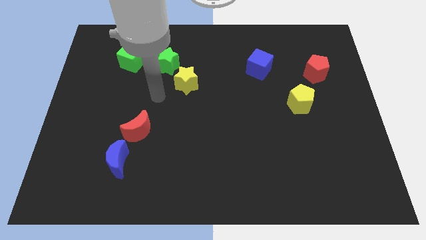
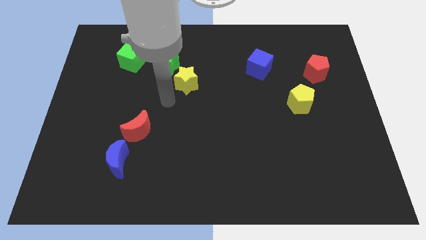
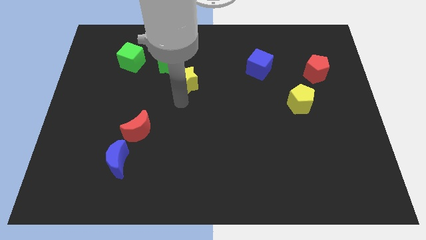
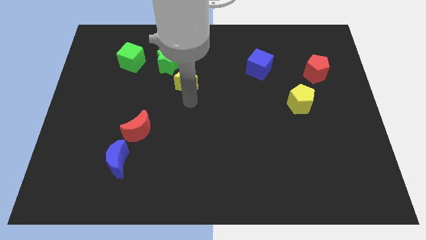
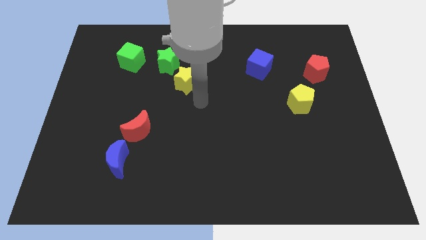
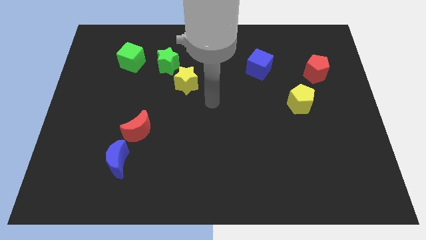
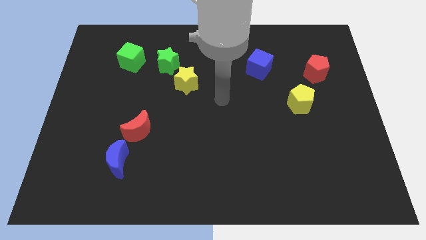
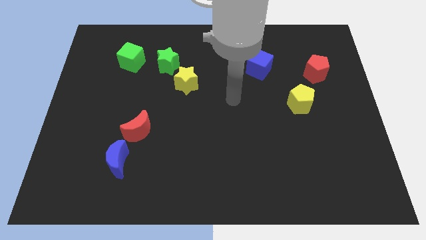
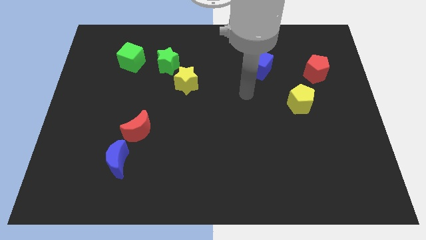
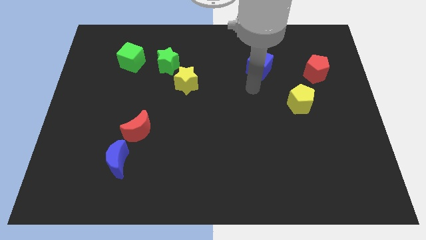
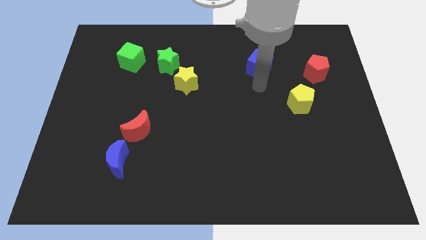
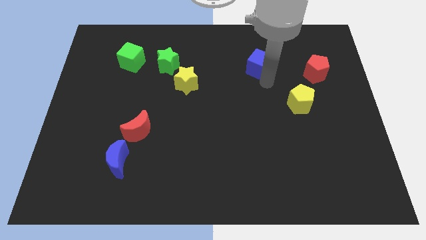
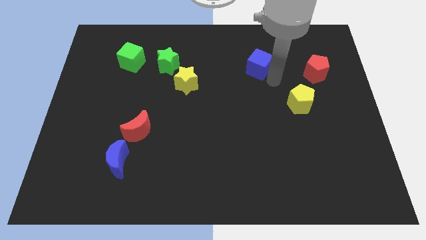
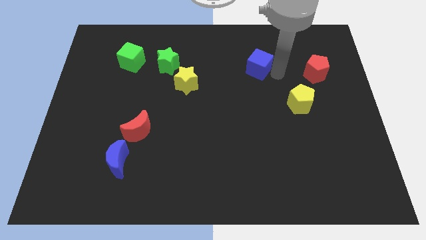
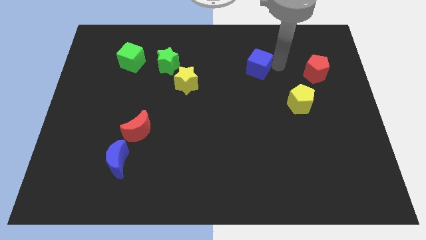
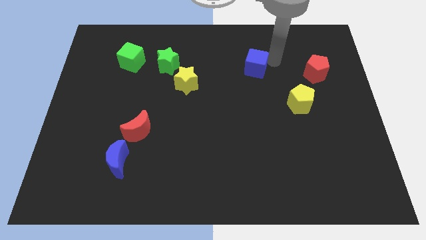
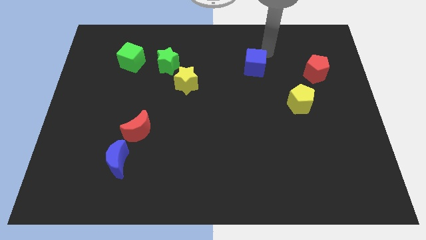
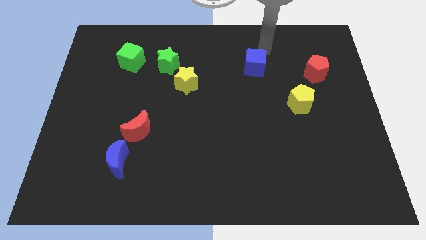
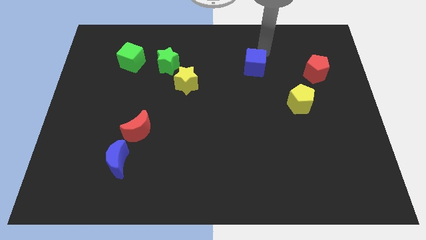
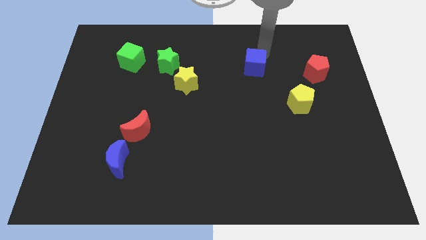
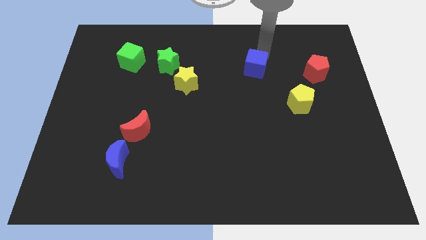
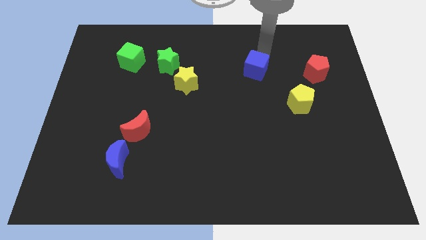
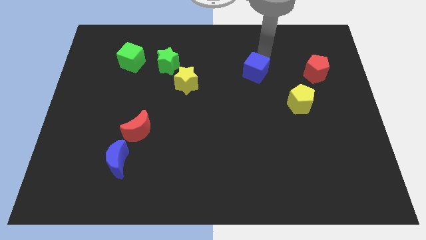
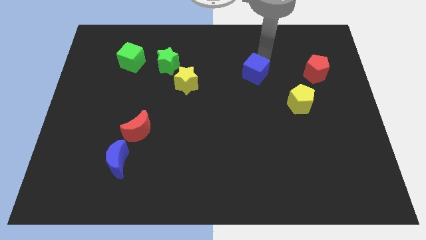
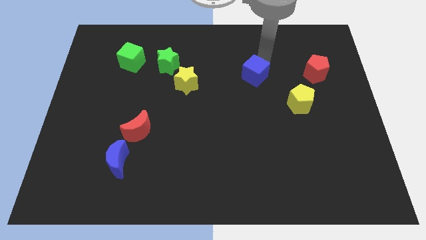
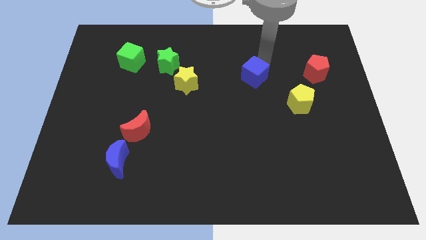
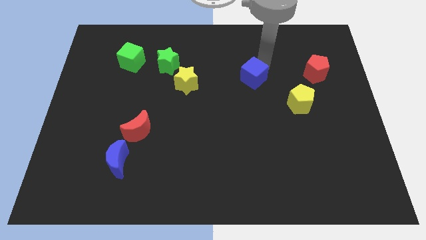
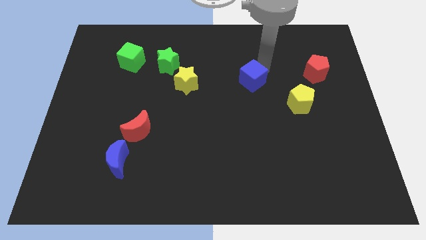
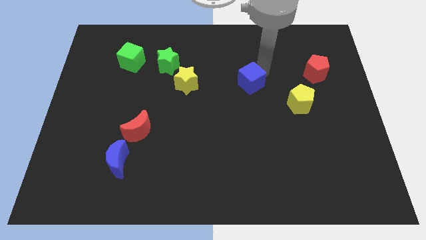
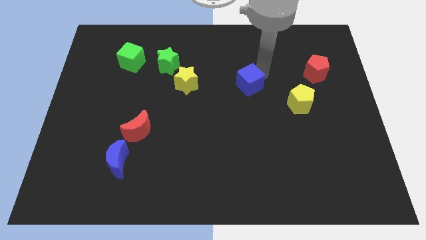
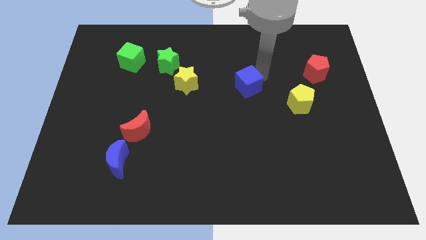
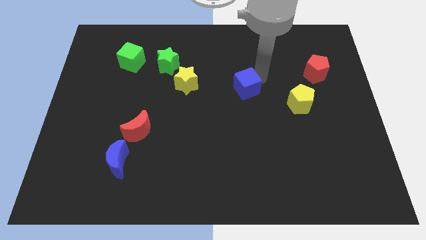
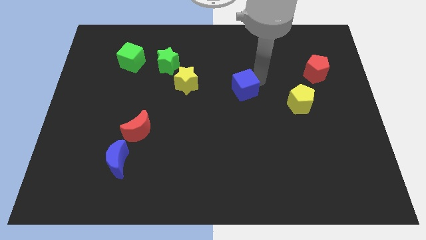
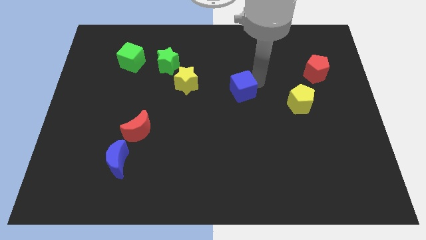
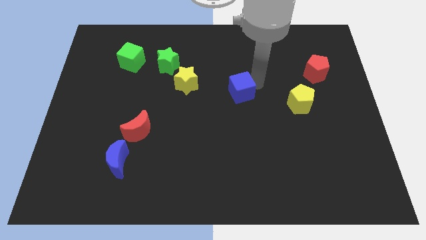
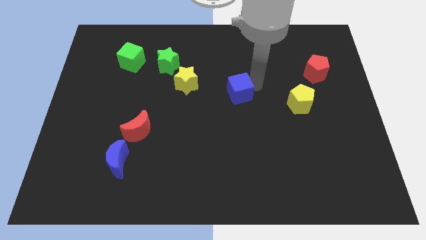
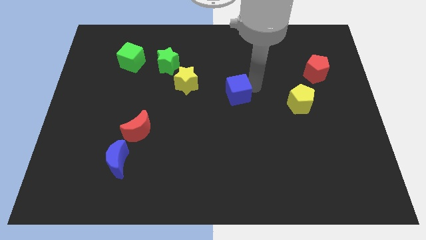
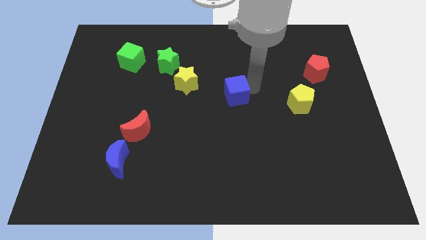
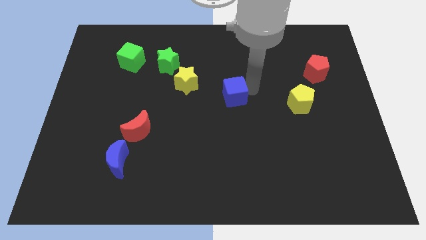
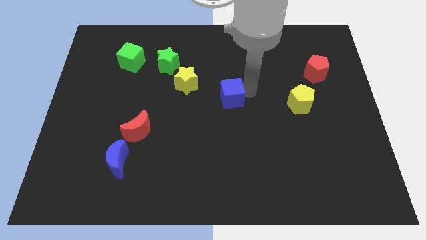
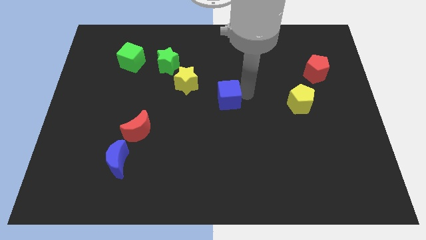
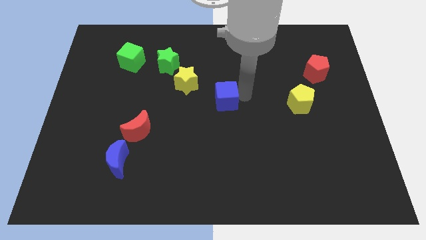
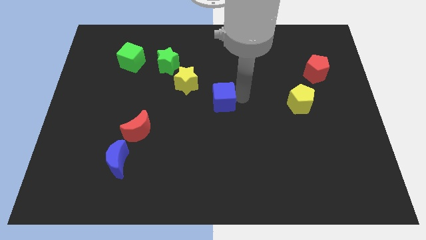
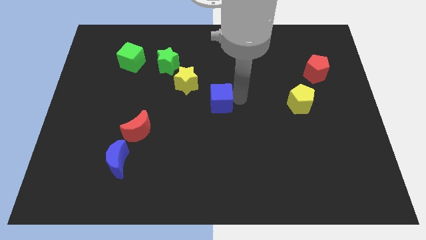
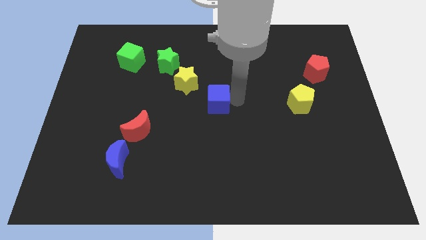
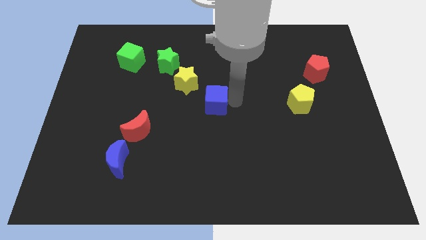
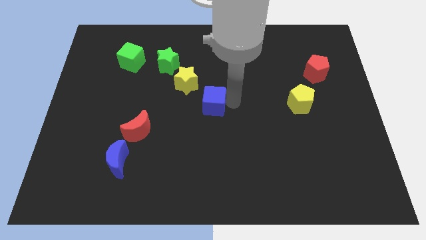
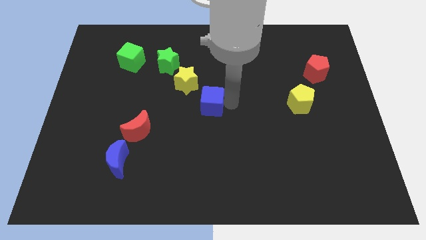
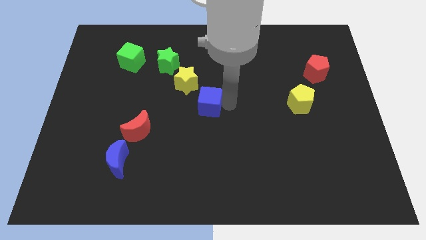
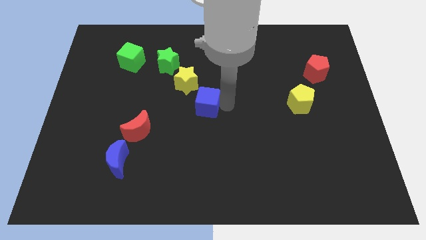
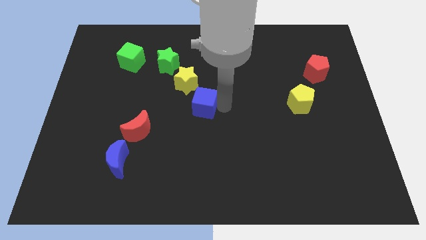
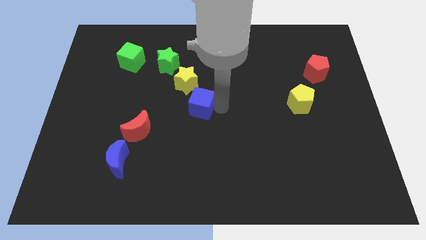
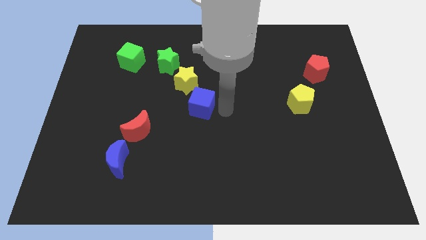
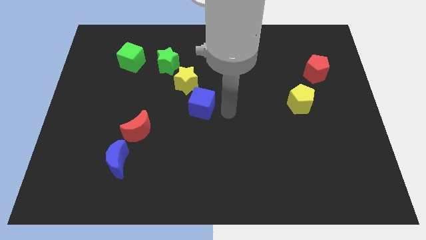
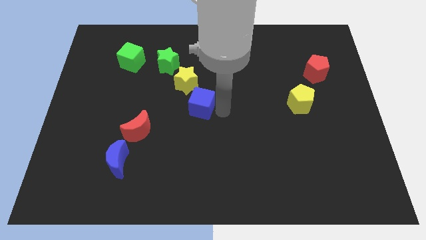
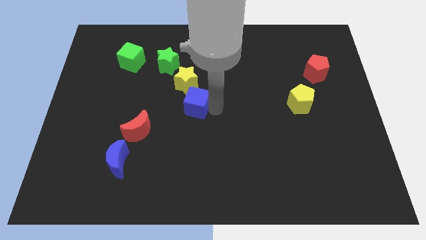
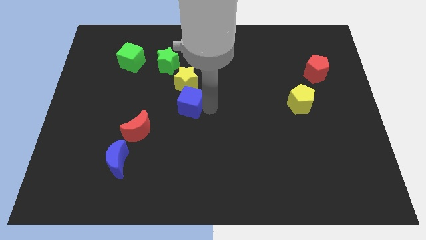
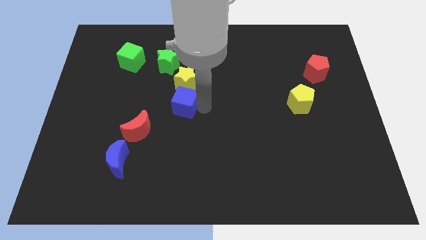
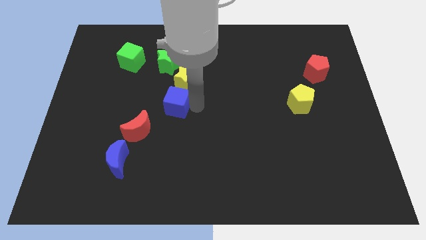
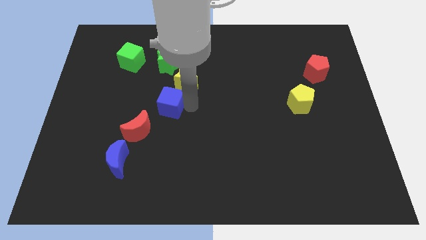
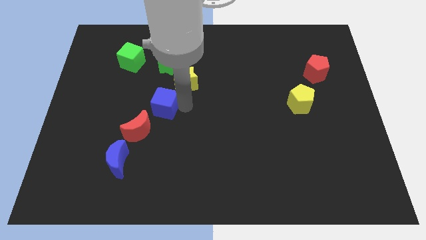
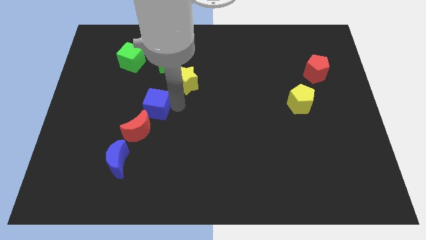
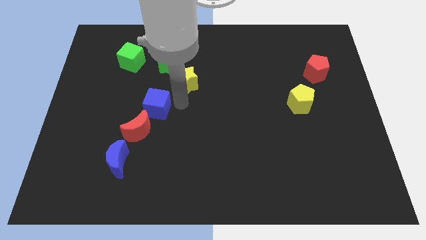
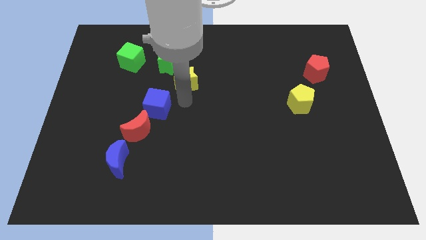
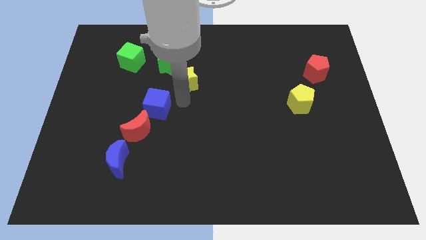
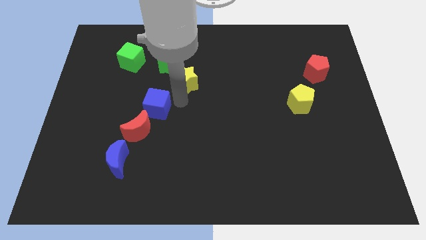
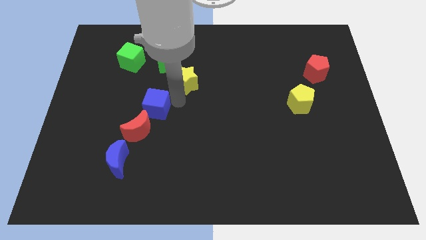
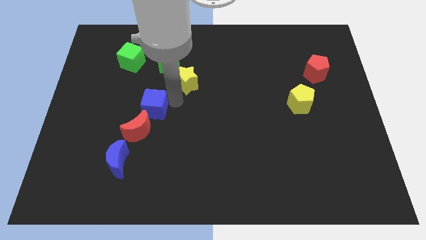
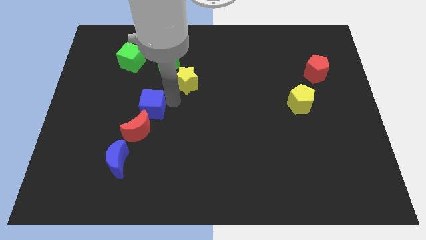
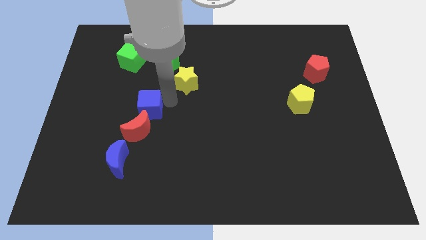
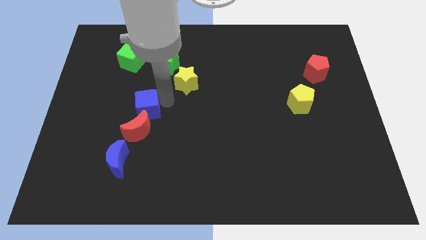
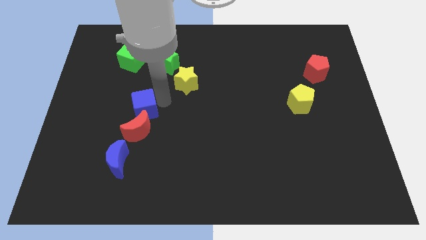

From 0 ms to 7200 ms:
move the blue cube to the top of the blue moon
